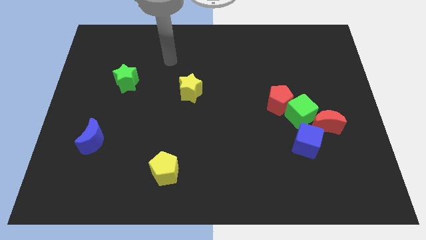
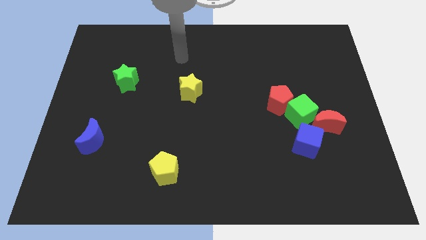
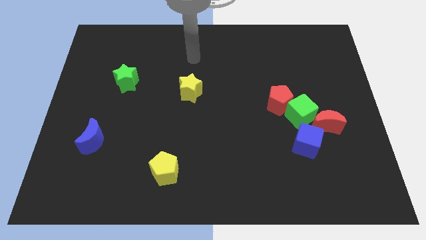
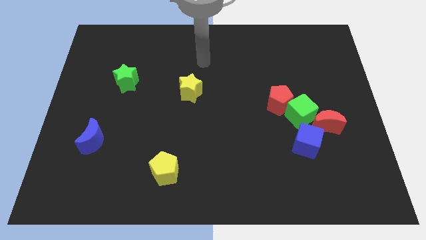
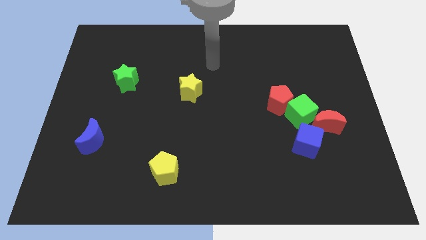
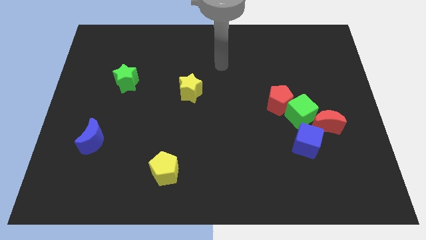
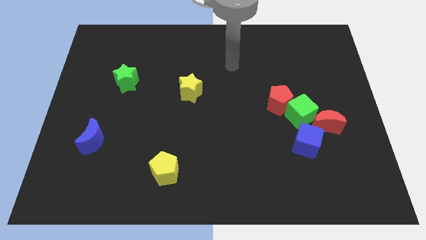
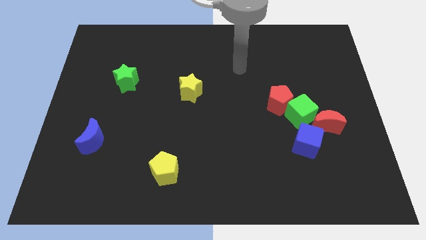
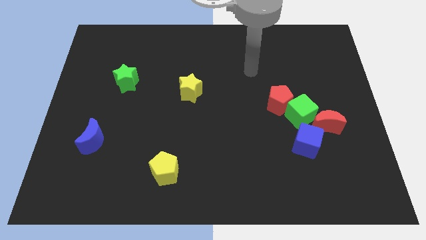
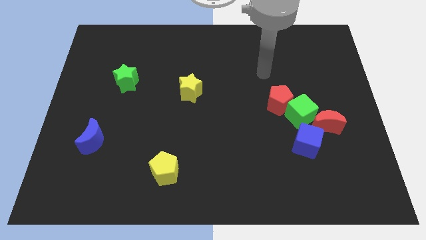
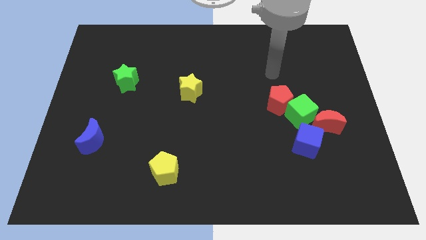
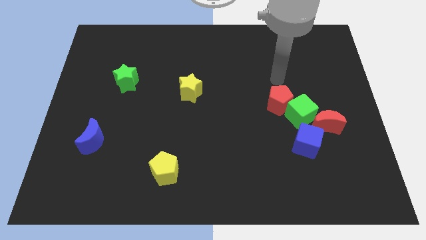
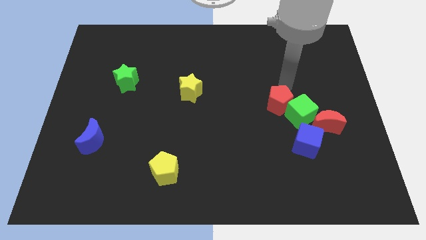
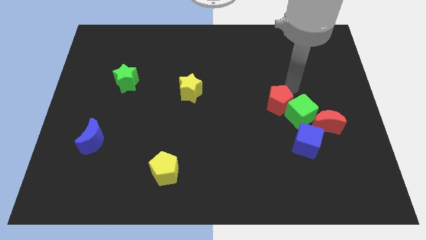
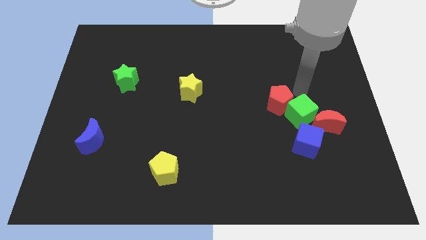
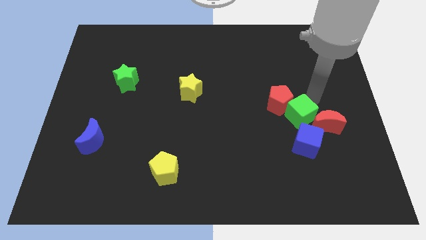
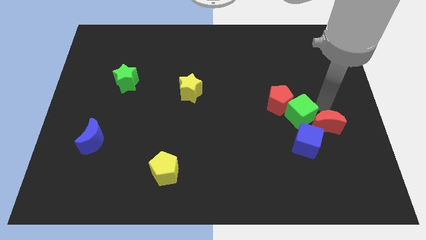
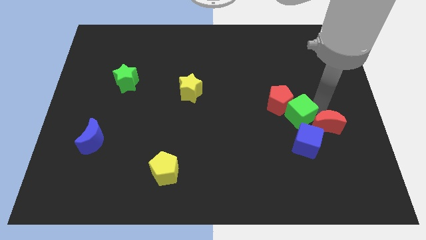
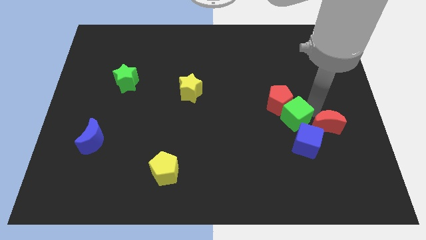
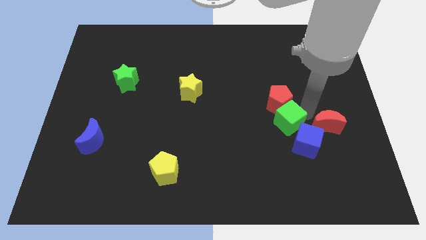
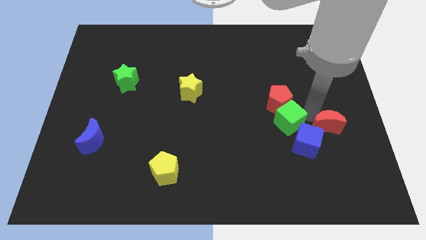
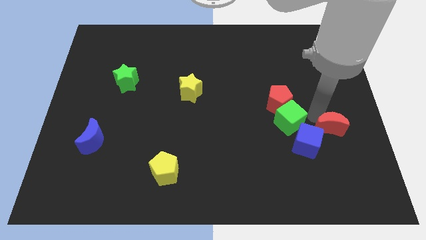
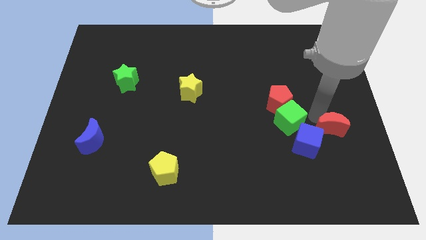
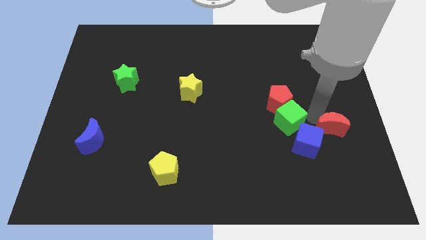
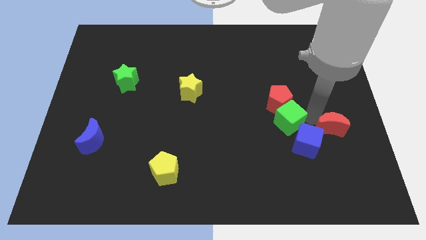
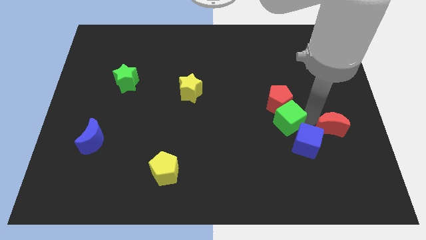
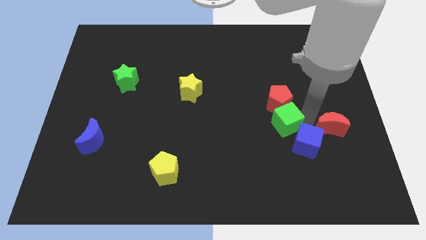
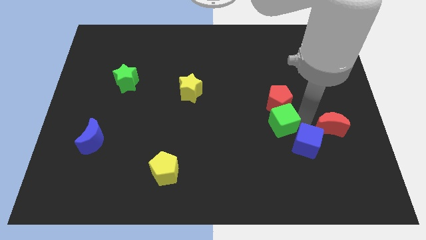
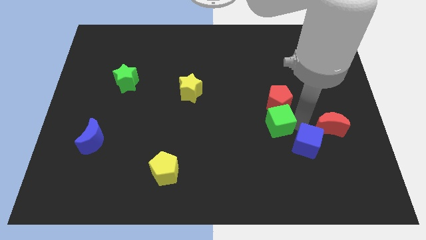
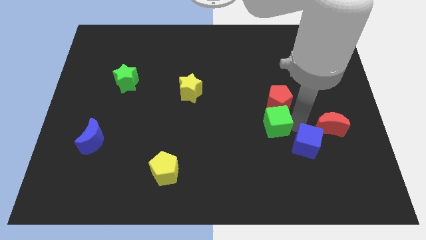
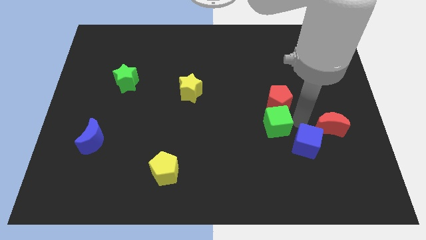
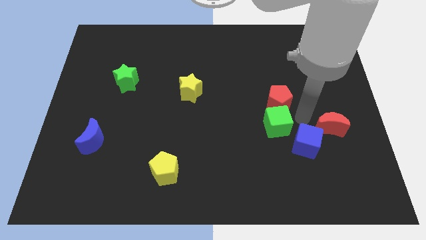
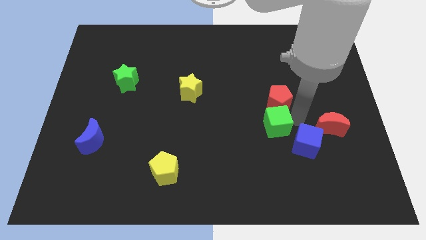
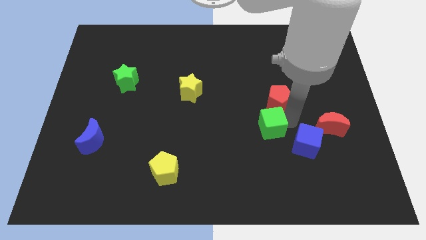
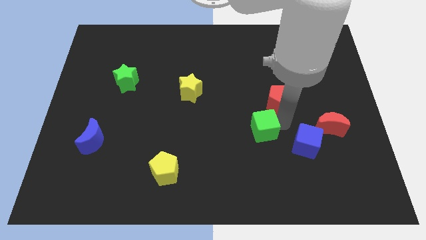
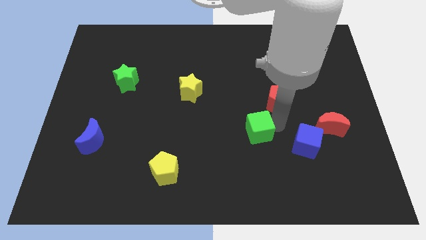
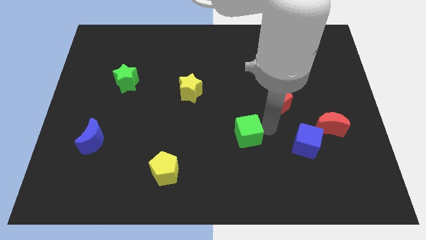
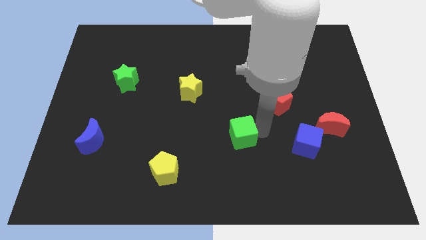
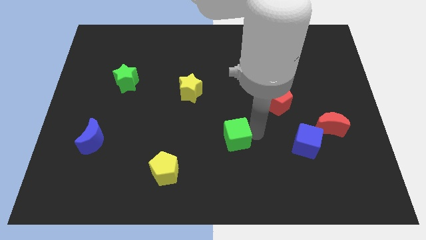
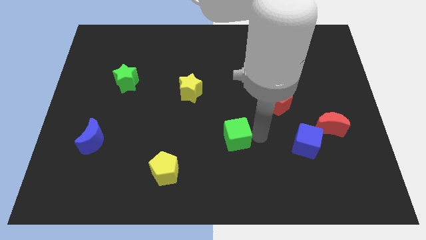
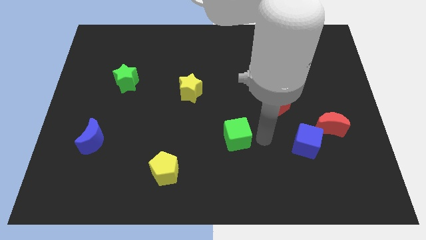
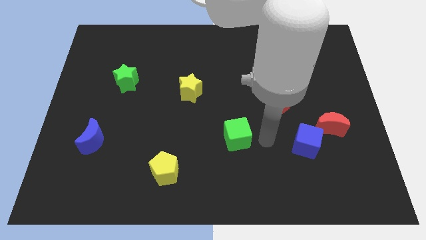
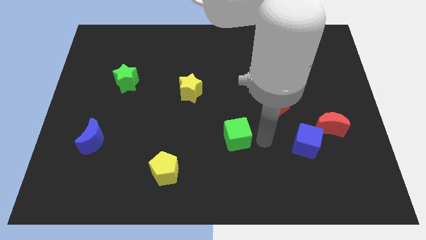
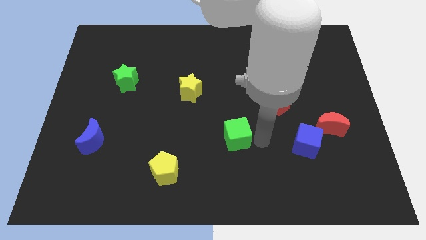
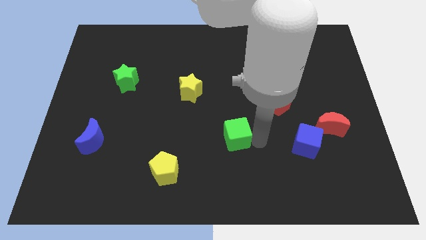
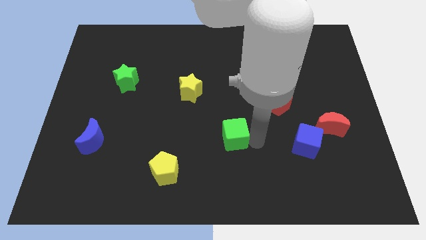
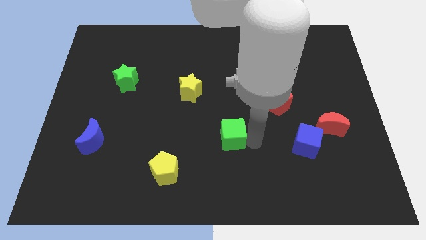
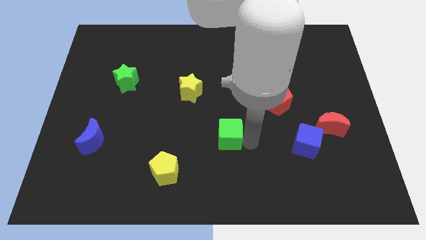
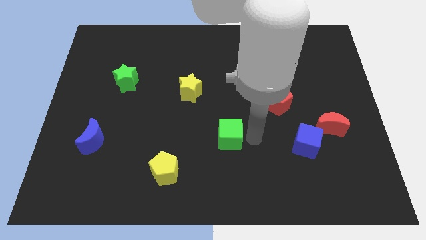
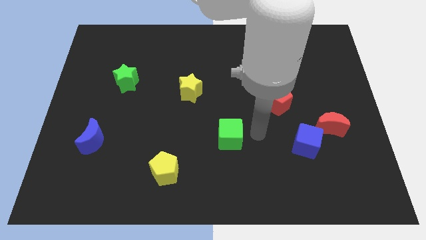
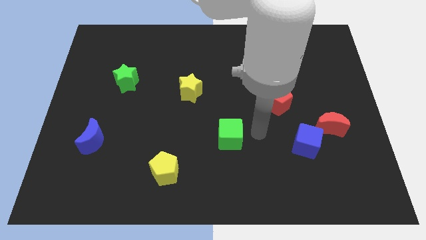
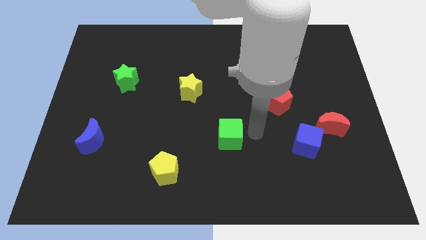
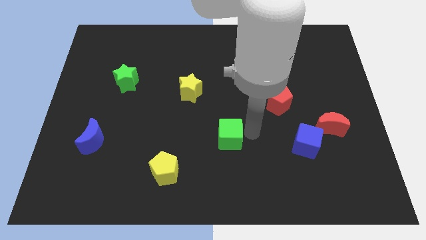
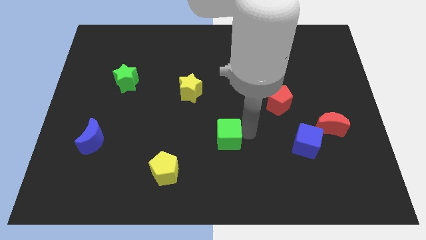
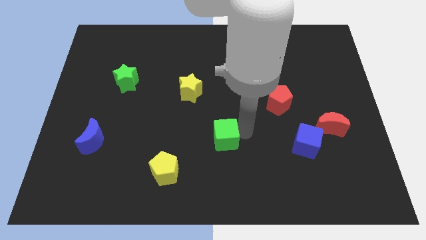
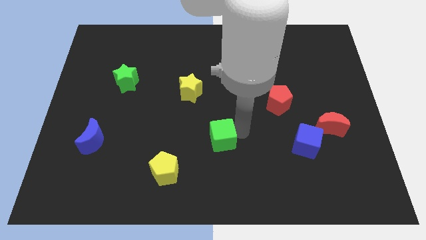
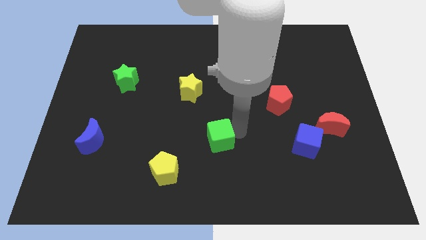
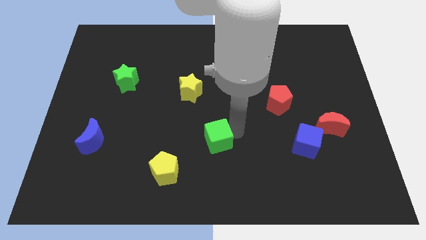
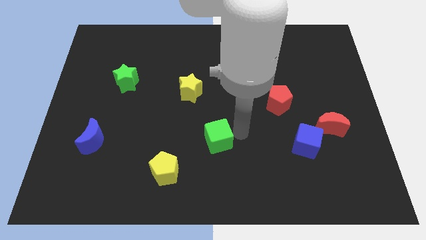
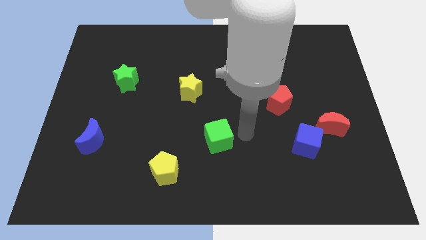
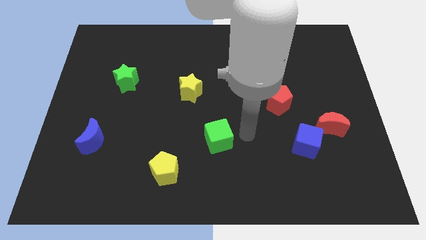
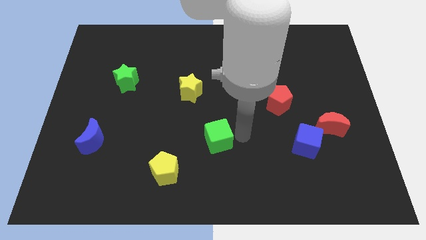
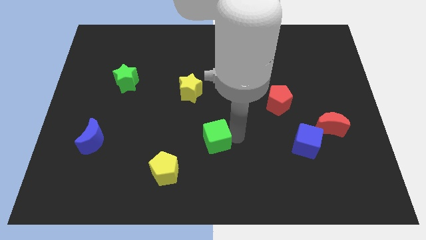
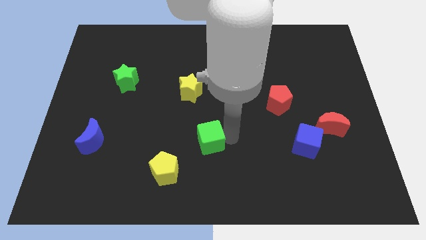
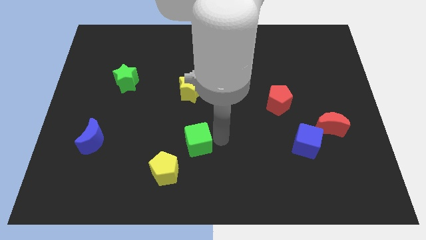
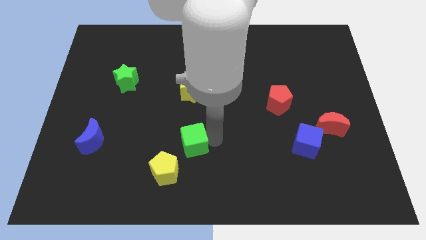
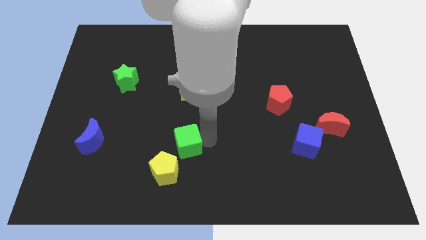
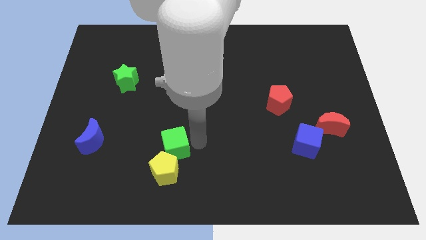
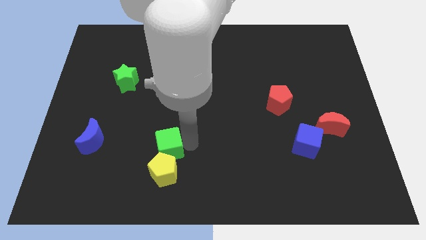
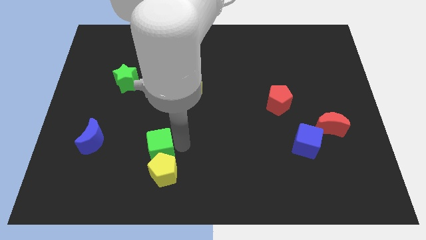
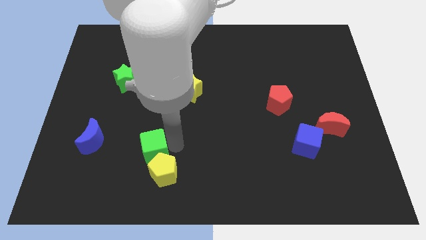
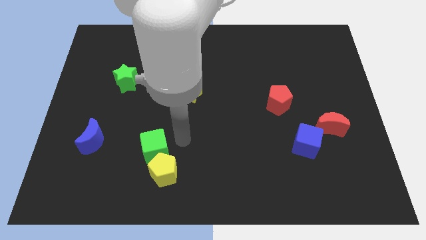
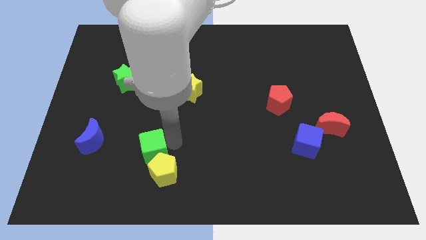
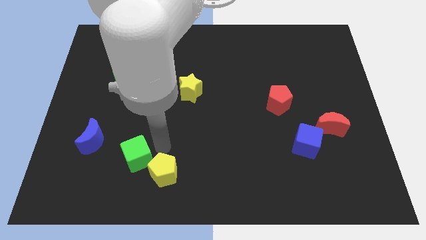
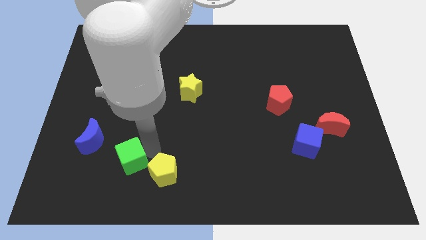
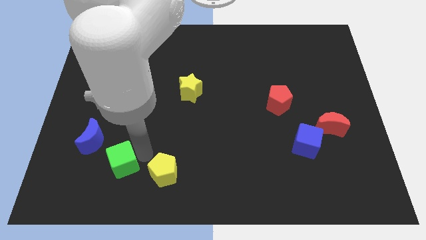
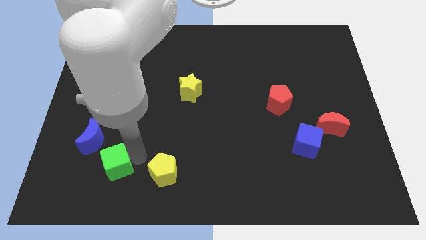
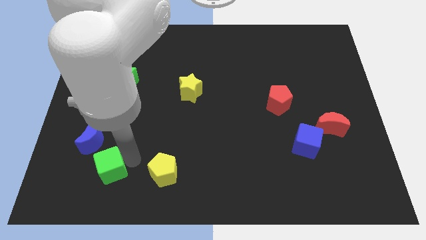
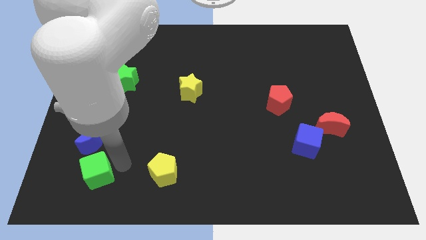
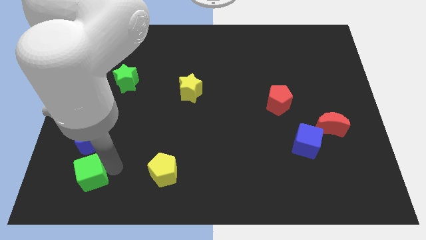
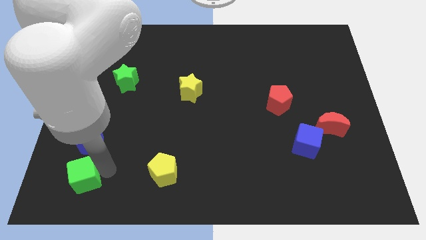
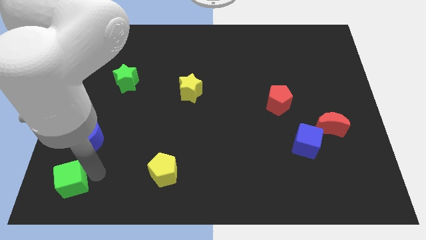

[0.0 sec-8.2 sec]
put the green cube to the bottom left of the board
